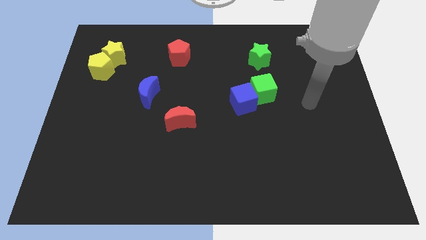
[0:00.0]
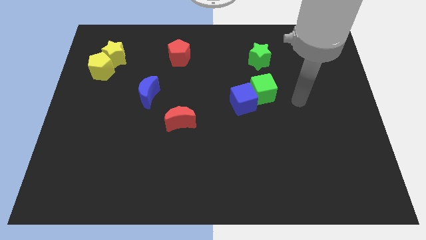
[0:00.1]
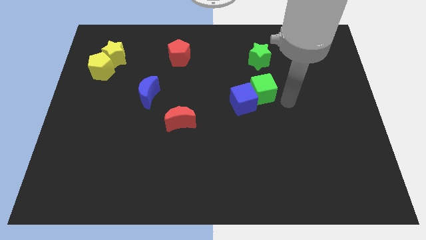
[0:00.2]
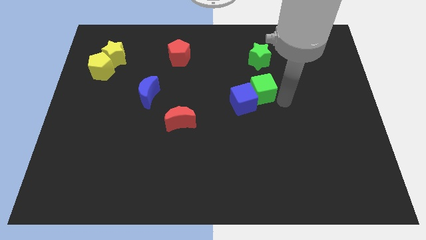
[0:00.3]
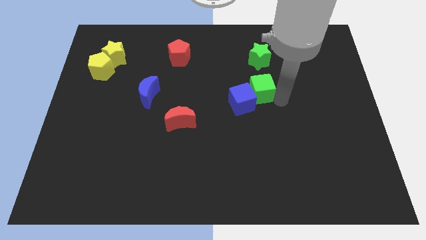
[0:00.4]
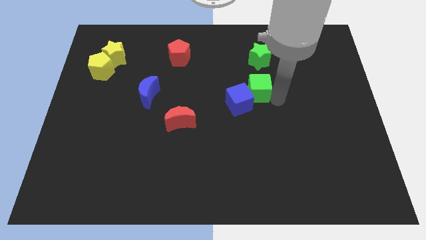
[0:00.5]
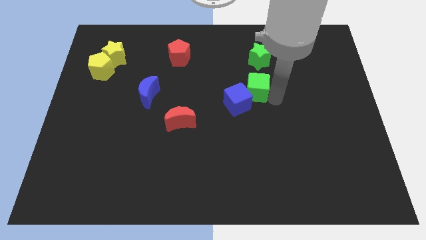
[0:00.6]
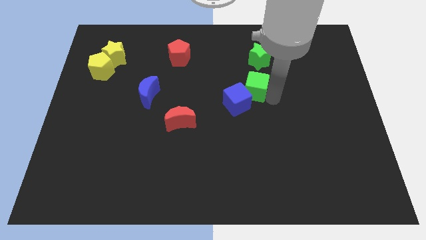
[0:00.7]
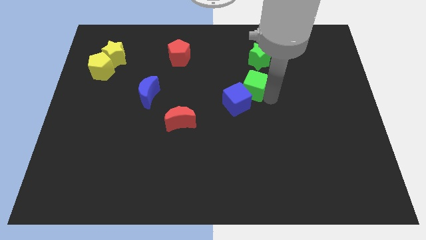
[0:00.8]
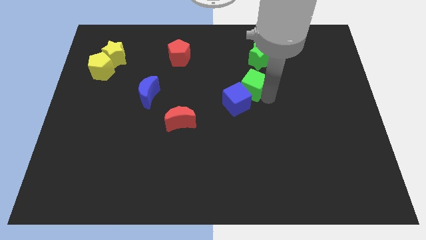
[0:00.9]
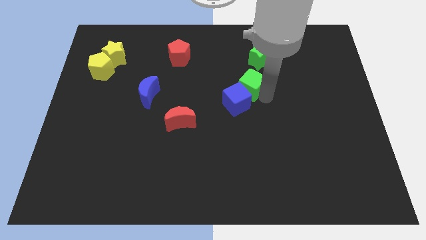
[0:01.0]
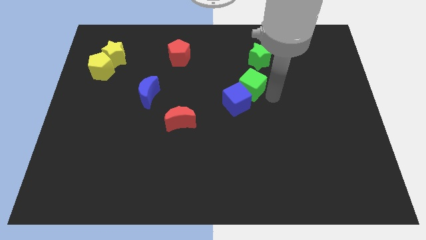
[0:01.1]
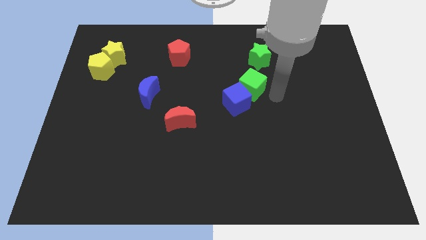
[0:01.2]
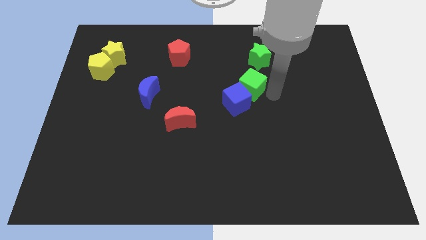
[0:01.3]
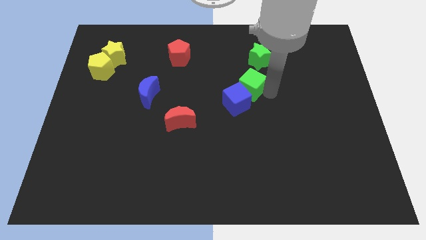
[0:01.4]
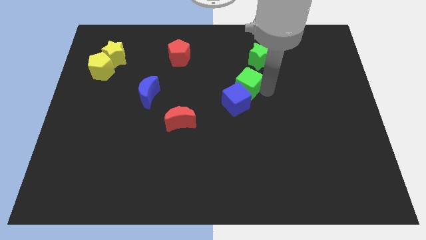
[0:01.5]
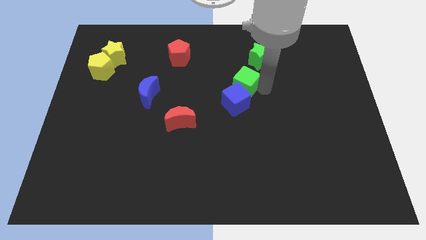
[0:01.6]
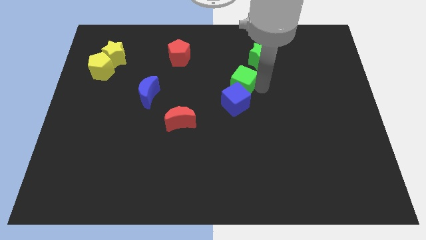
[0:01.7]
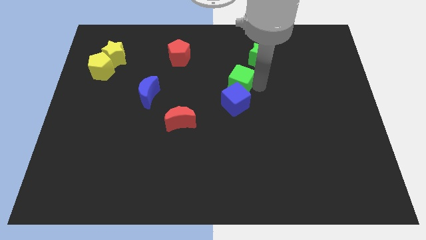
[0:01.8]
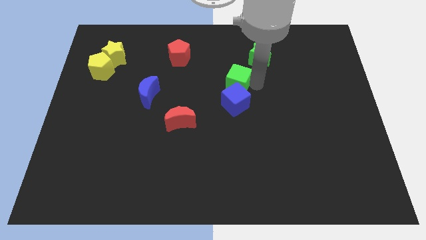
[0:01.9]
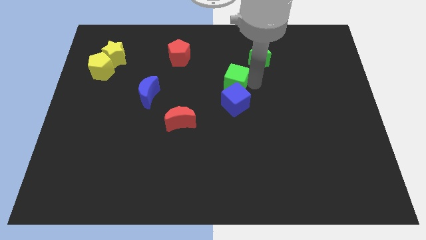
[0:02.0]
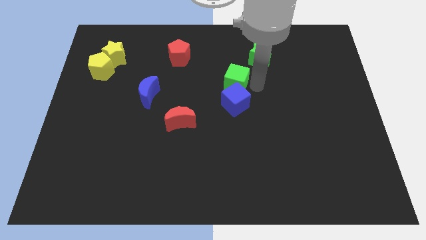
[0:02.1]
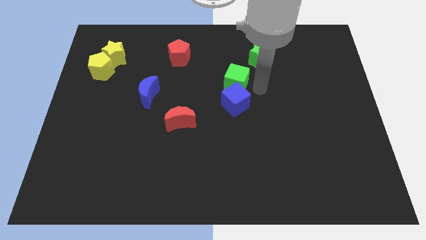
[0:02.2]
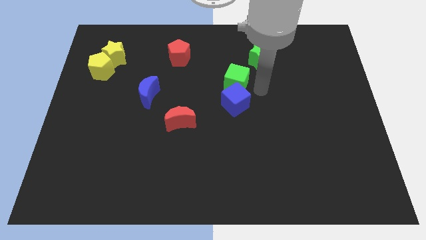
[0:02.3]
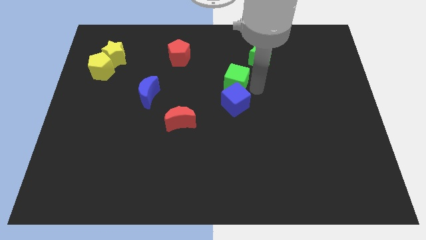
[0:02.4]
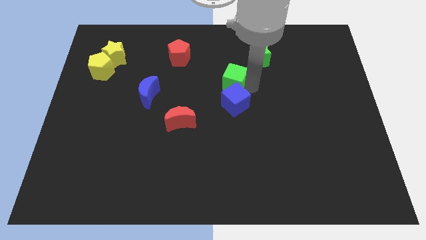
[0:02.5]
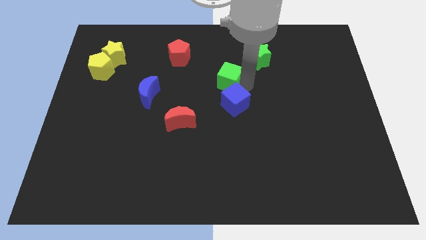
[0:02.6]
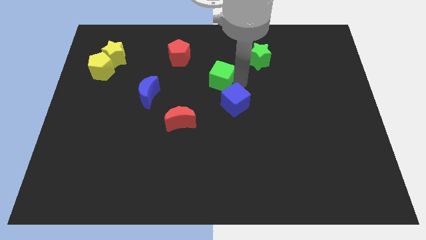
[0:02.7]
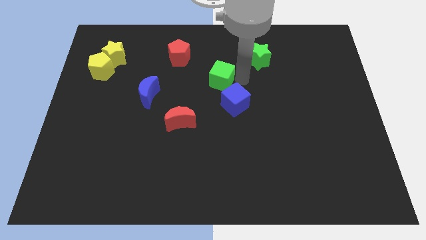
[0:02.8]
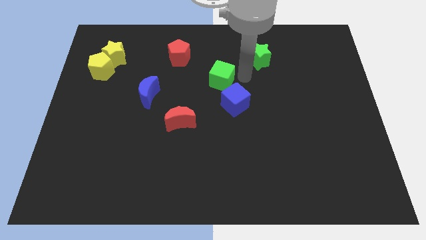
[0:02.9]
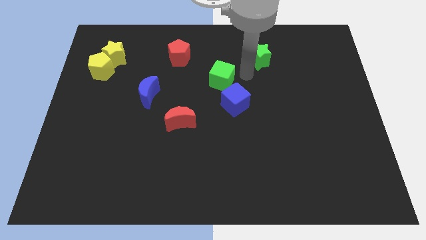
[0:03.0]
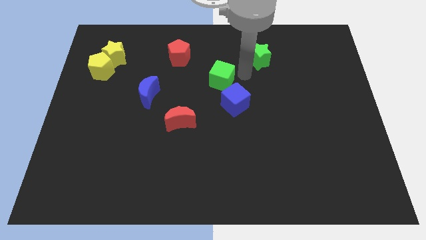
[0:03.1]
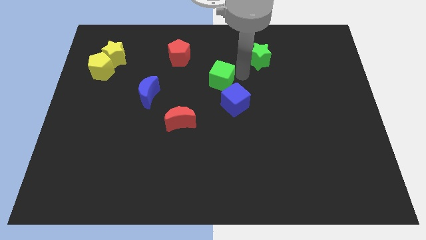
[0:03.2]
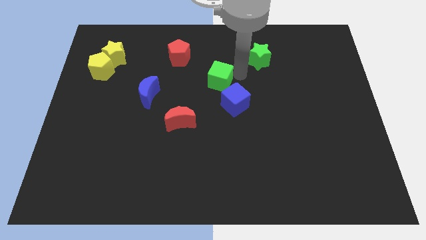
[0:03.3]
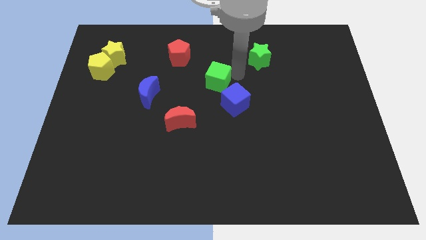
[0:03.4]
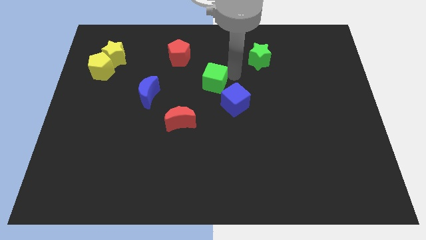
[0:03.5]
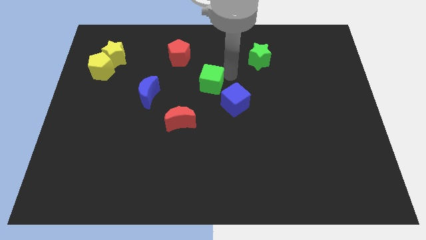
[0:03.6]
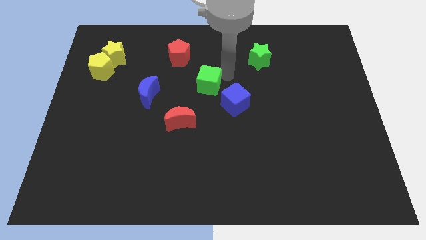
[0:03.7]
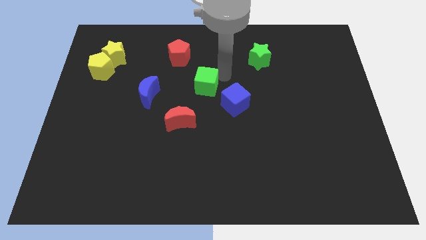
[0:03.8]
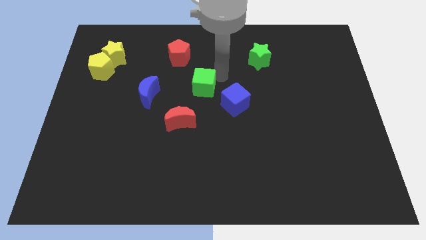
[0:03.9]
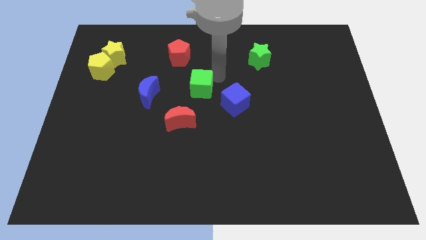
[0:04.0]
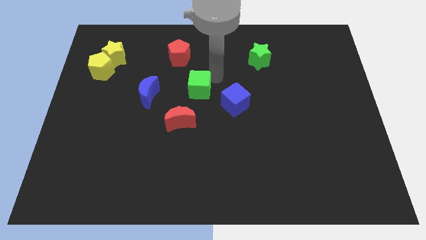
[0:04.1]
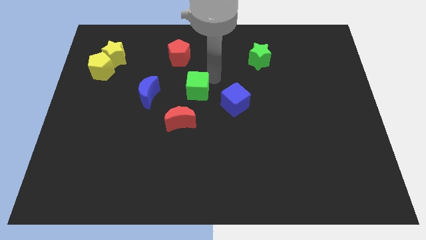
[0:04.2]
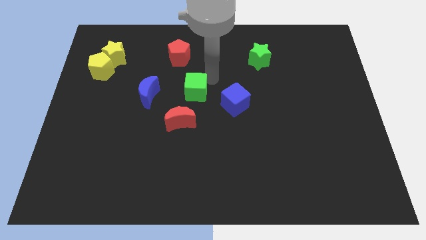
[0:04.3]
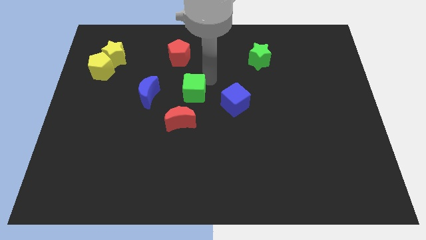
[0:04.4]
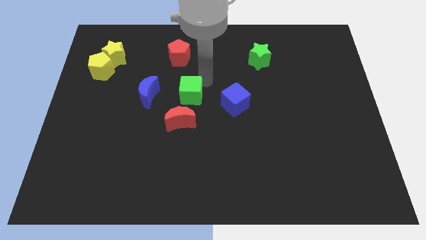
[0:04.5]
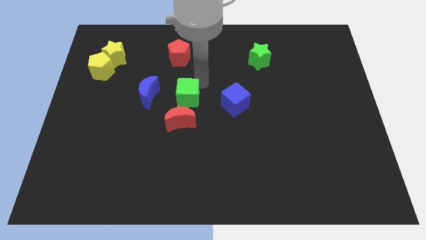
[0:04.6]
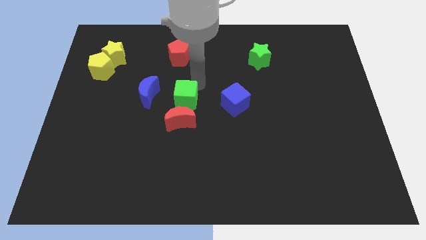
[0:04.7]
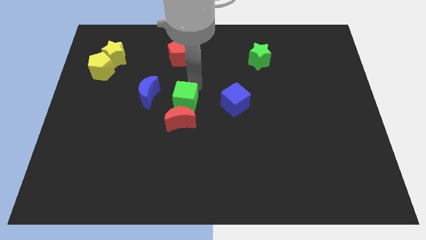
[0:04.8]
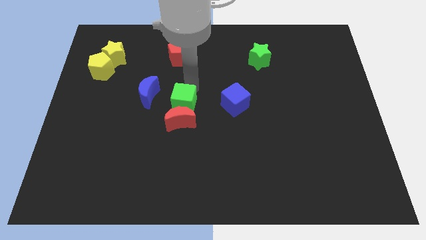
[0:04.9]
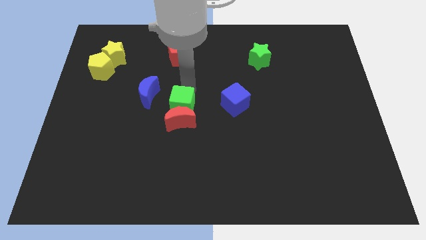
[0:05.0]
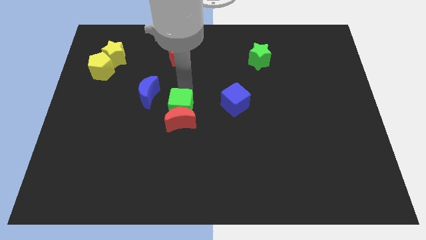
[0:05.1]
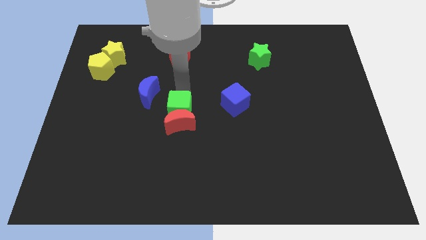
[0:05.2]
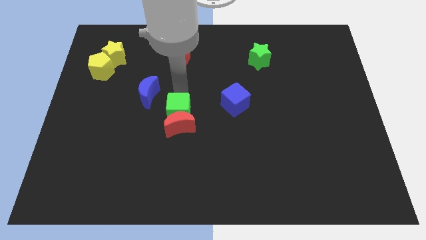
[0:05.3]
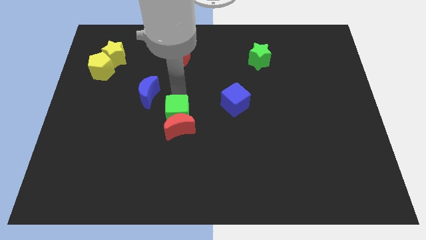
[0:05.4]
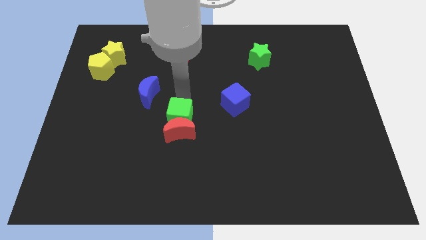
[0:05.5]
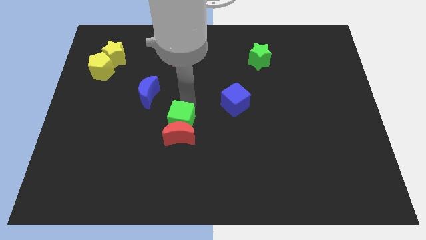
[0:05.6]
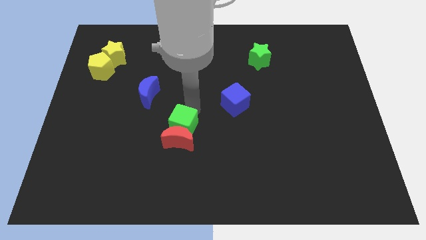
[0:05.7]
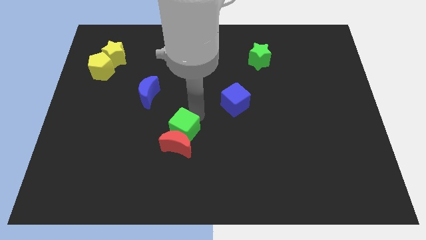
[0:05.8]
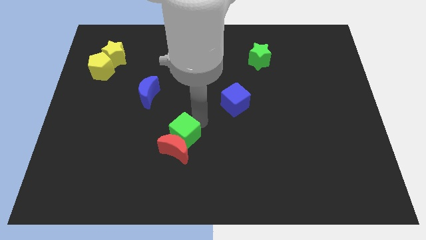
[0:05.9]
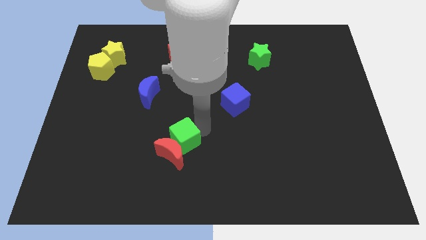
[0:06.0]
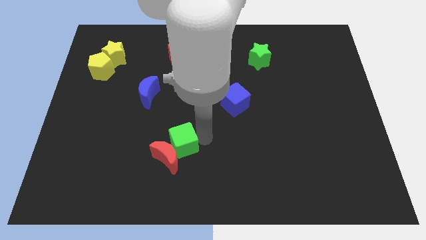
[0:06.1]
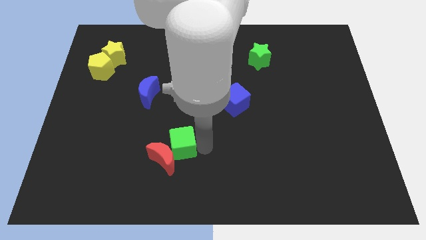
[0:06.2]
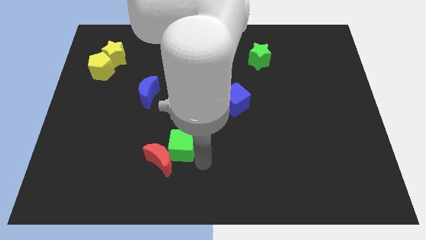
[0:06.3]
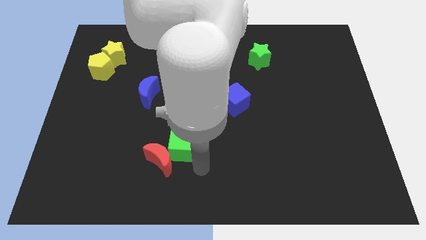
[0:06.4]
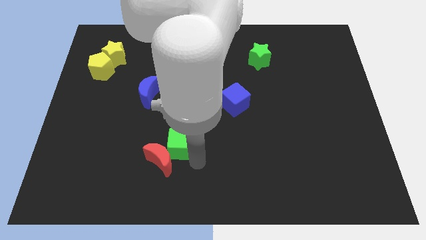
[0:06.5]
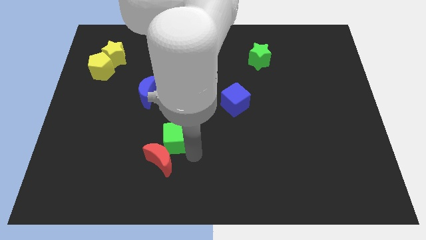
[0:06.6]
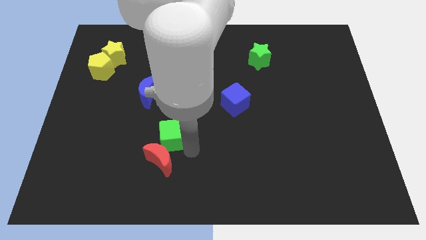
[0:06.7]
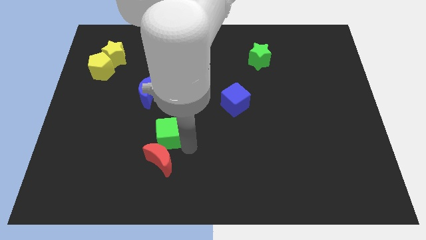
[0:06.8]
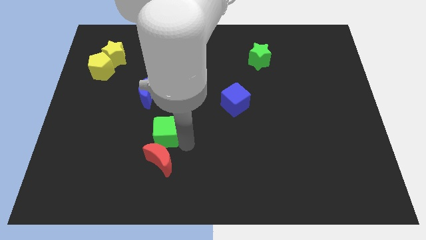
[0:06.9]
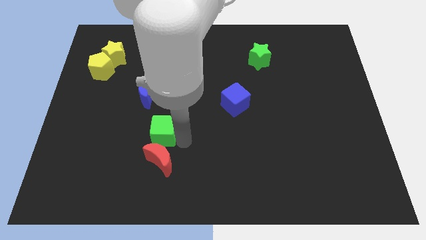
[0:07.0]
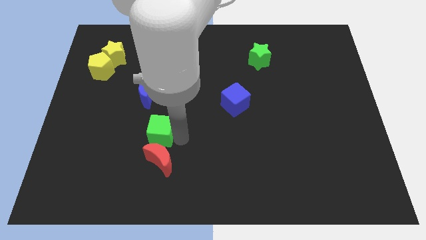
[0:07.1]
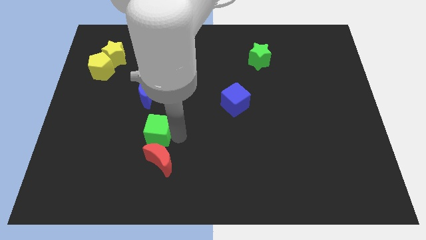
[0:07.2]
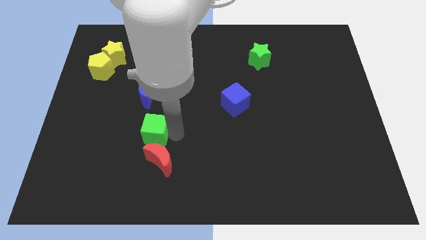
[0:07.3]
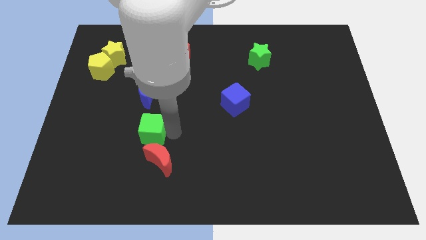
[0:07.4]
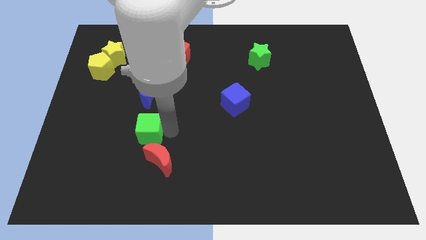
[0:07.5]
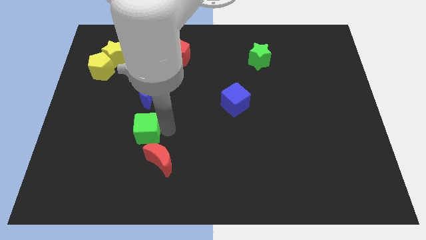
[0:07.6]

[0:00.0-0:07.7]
move the green cube to the left

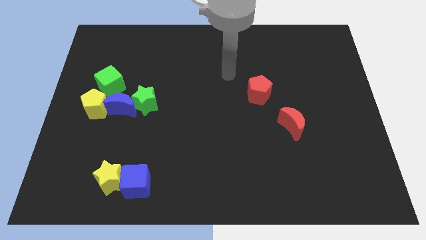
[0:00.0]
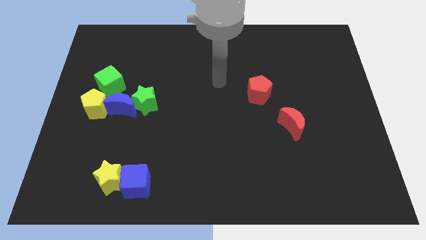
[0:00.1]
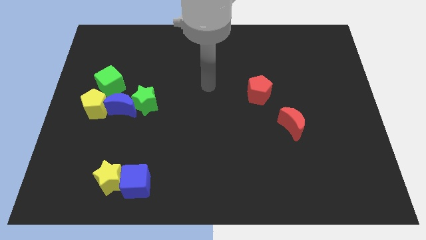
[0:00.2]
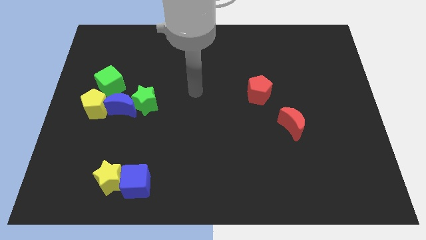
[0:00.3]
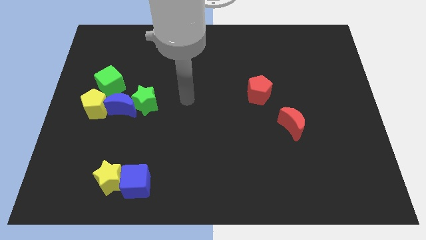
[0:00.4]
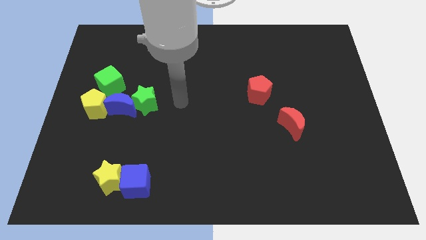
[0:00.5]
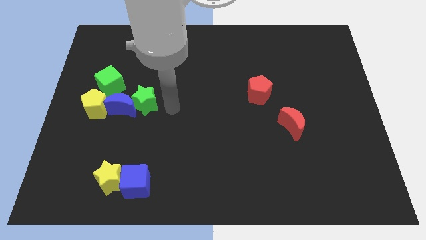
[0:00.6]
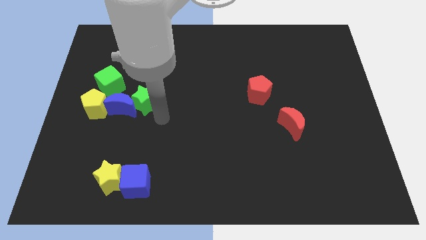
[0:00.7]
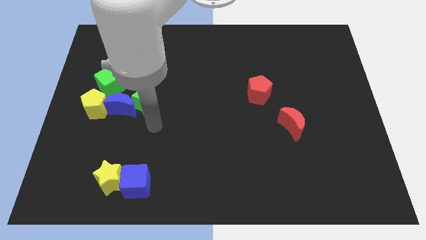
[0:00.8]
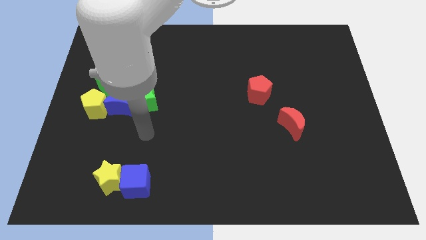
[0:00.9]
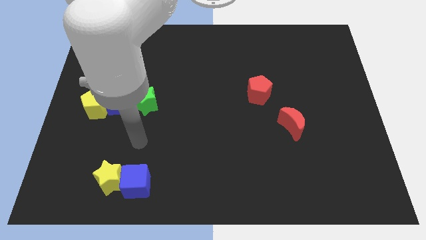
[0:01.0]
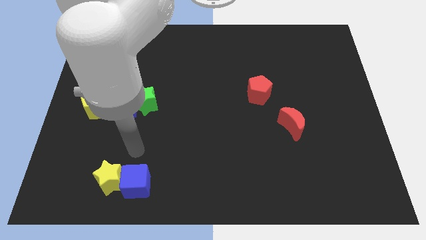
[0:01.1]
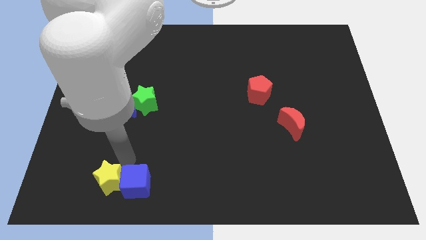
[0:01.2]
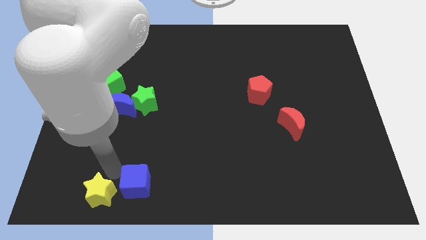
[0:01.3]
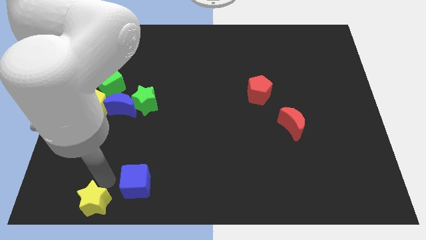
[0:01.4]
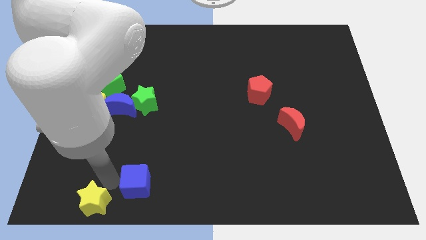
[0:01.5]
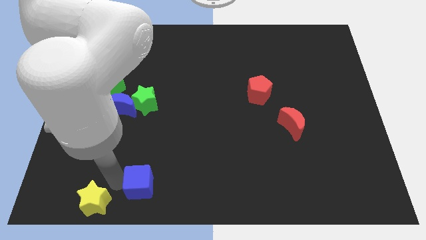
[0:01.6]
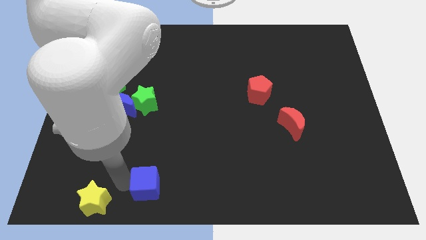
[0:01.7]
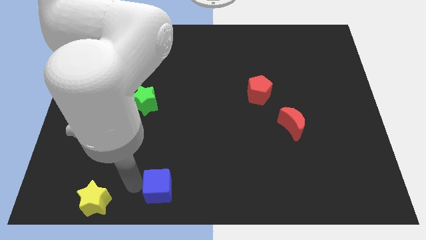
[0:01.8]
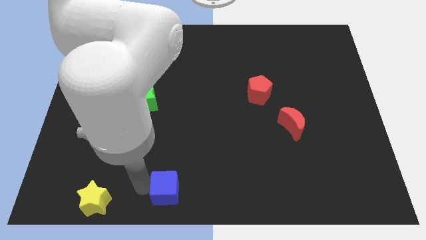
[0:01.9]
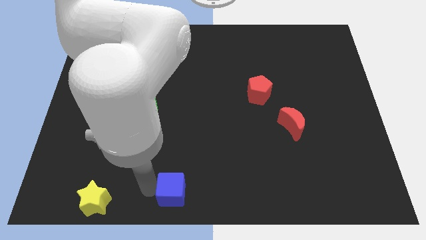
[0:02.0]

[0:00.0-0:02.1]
slightly push the blue cube to the right
